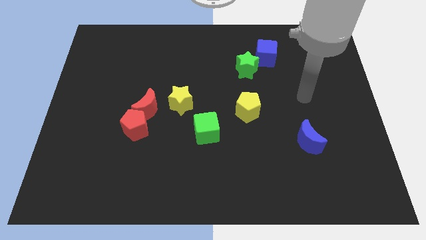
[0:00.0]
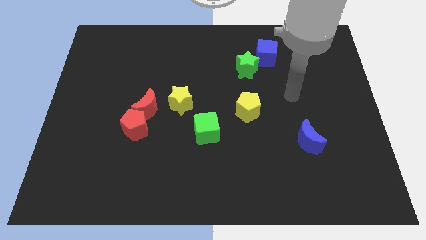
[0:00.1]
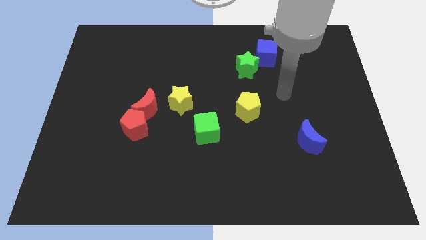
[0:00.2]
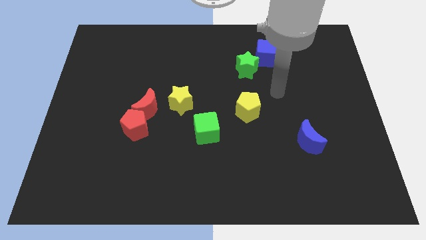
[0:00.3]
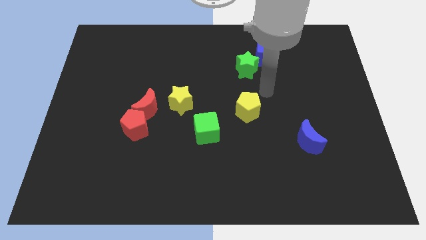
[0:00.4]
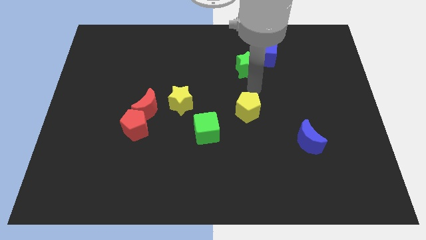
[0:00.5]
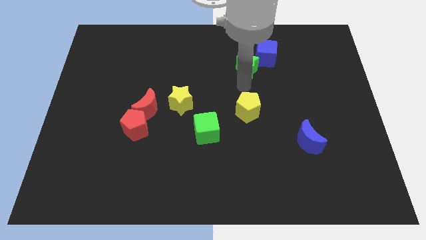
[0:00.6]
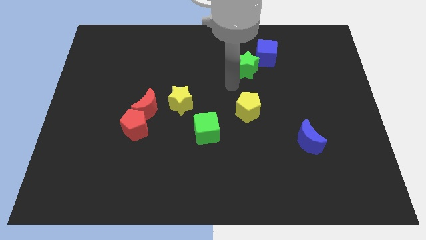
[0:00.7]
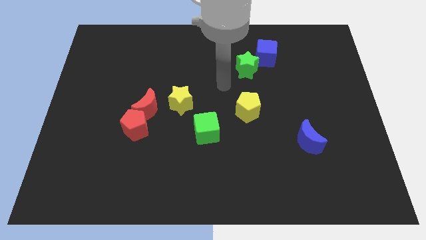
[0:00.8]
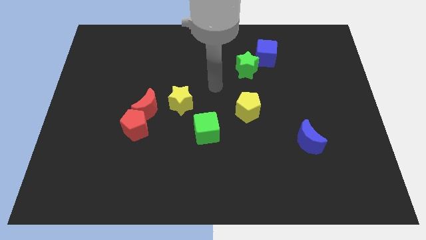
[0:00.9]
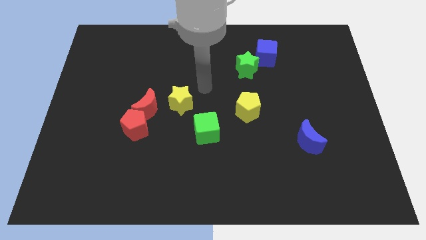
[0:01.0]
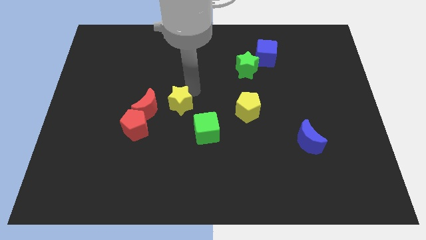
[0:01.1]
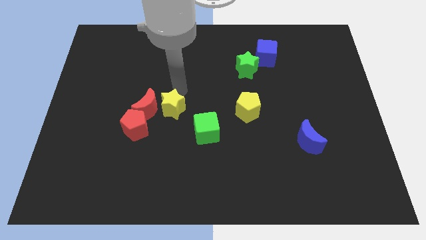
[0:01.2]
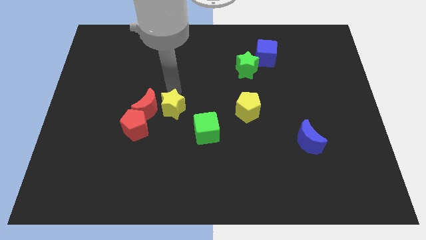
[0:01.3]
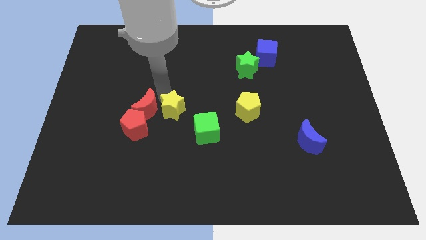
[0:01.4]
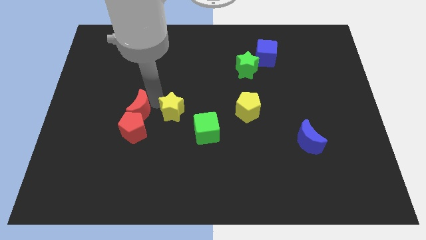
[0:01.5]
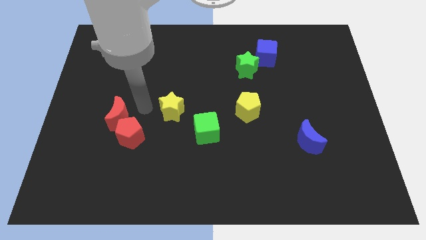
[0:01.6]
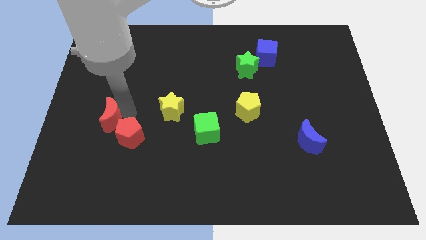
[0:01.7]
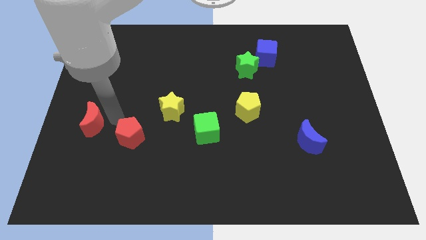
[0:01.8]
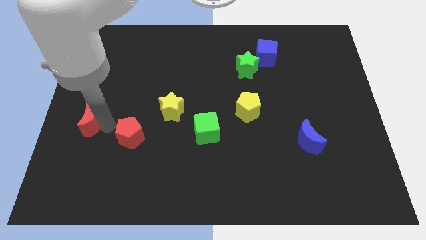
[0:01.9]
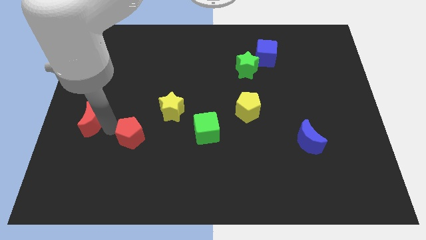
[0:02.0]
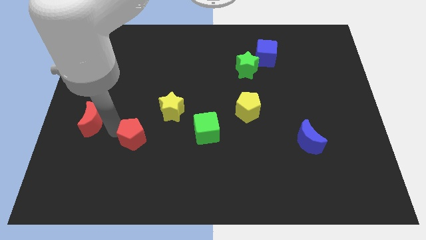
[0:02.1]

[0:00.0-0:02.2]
separate the red pentagon from the red moon

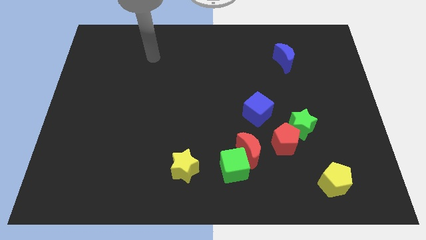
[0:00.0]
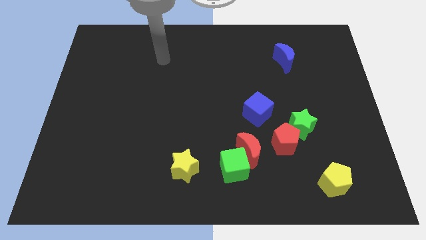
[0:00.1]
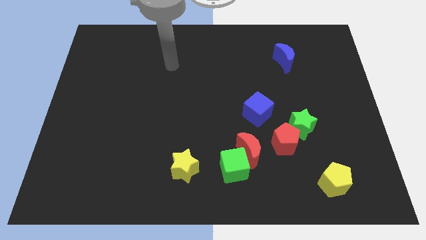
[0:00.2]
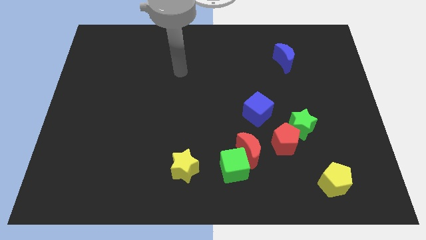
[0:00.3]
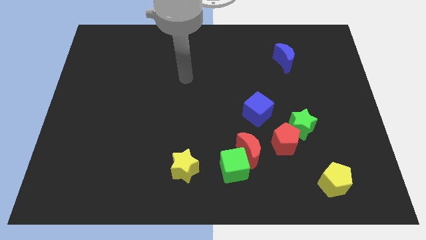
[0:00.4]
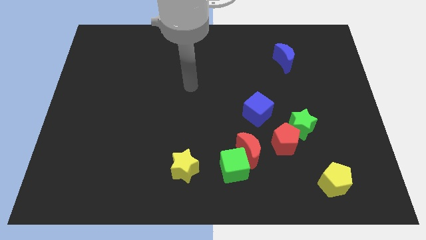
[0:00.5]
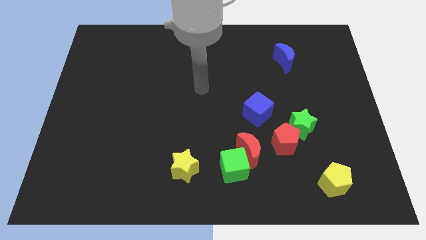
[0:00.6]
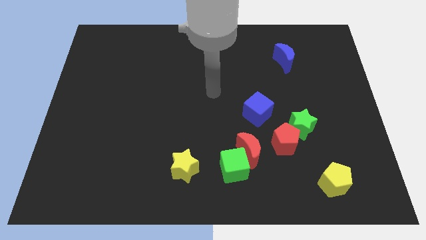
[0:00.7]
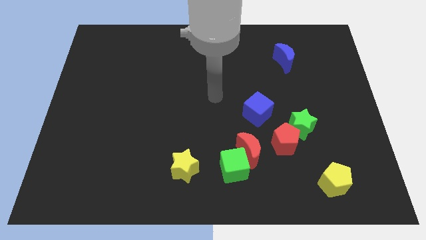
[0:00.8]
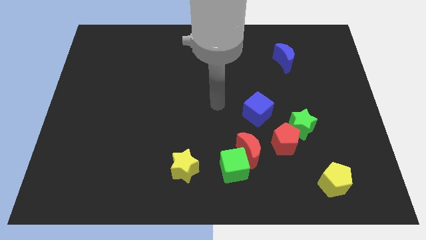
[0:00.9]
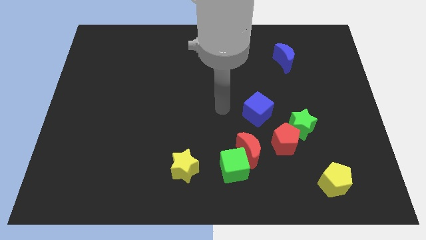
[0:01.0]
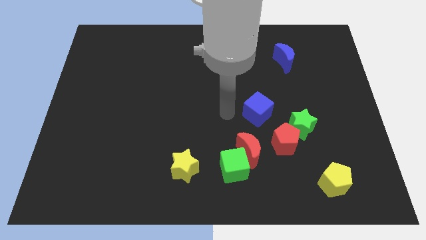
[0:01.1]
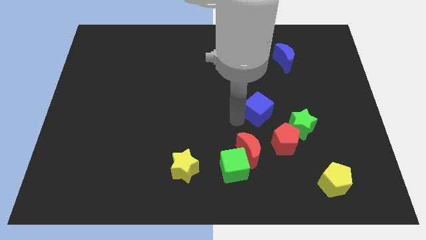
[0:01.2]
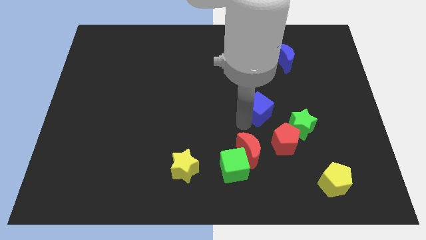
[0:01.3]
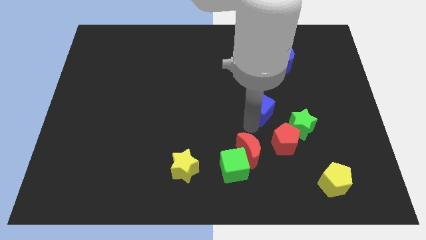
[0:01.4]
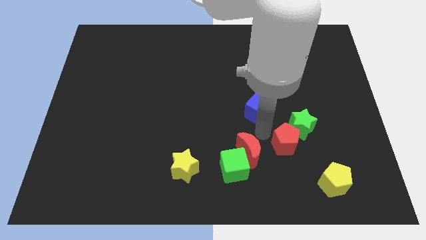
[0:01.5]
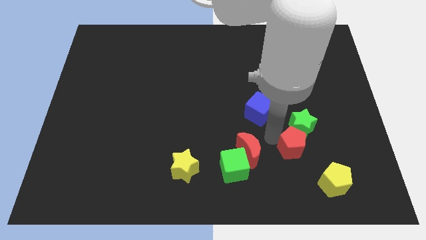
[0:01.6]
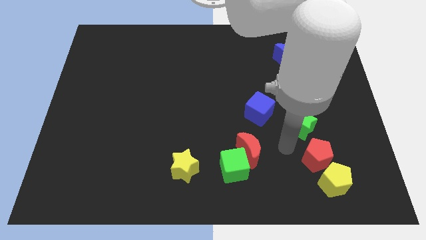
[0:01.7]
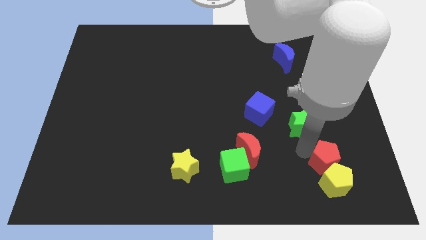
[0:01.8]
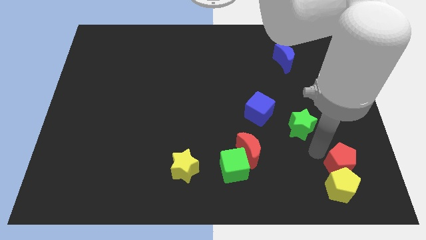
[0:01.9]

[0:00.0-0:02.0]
separate the green star from the red pentagon

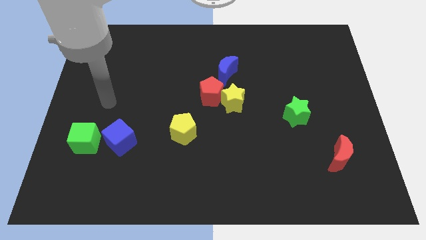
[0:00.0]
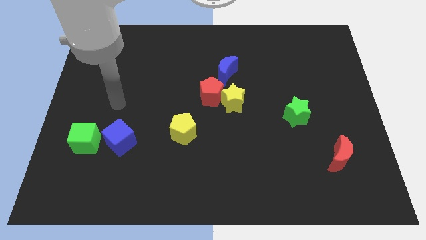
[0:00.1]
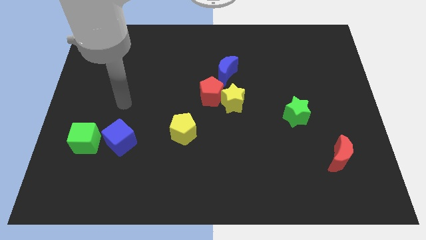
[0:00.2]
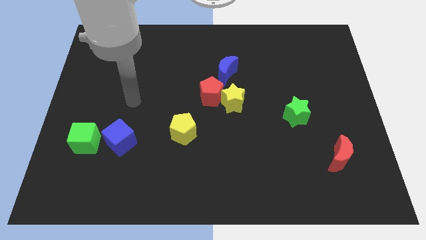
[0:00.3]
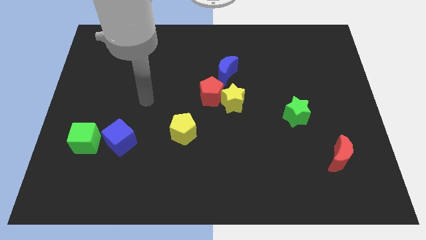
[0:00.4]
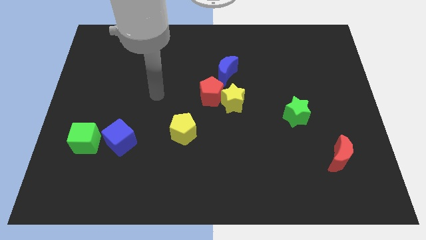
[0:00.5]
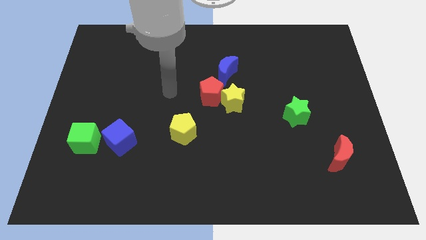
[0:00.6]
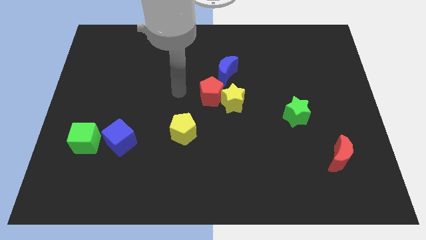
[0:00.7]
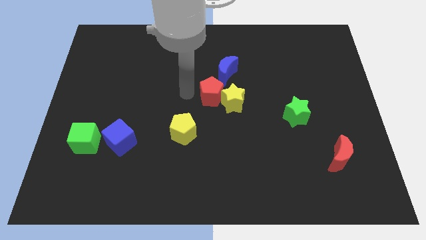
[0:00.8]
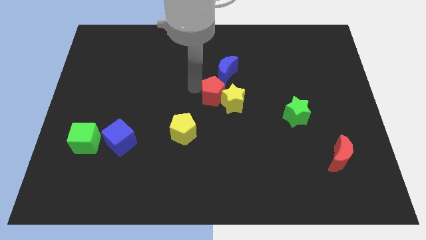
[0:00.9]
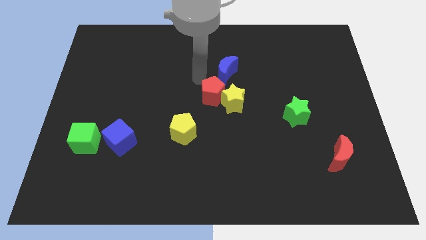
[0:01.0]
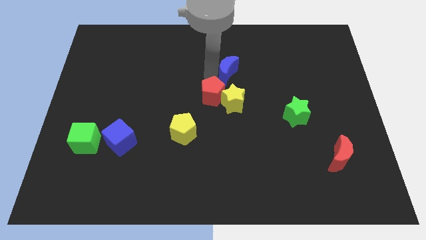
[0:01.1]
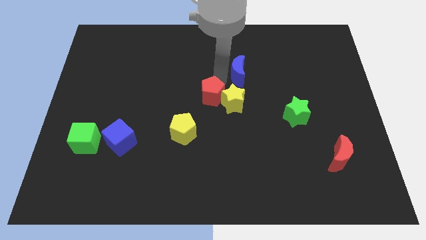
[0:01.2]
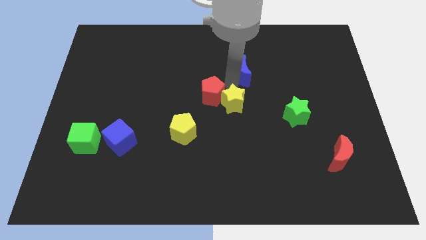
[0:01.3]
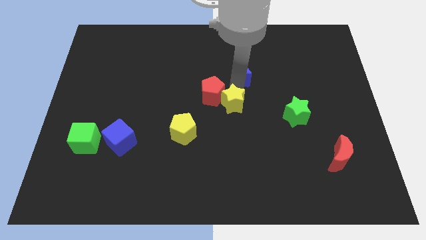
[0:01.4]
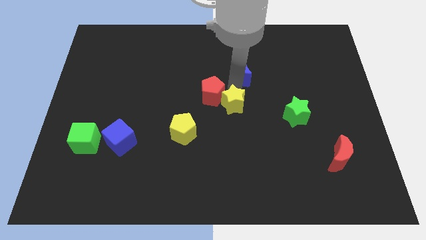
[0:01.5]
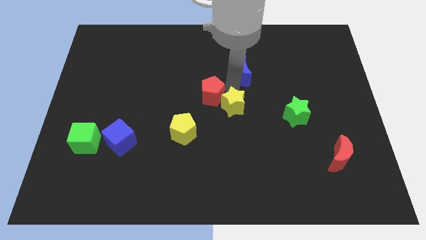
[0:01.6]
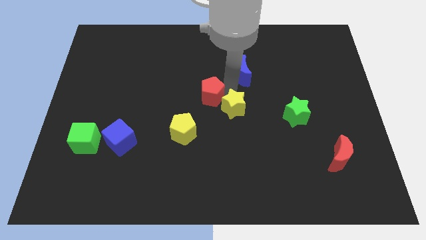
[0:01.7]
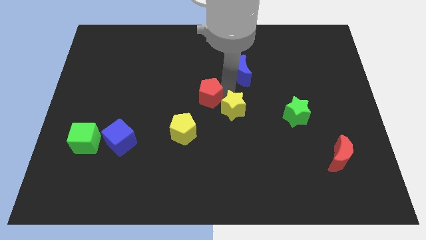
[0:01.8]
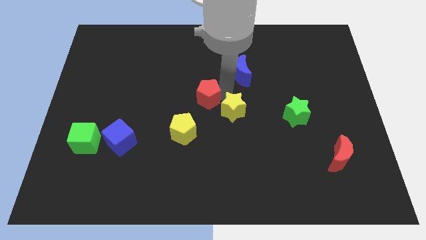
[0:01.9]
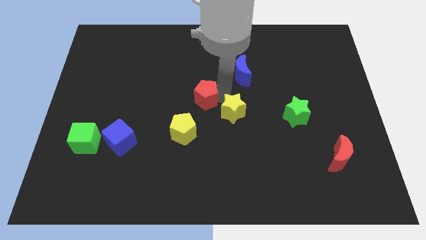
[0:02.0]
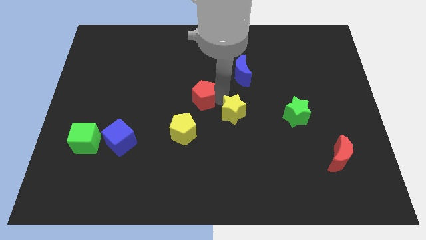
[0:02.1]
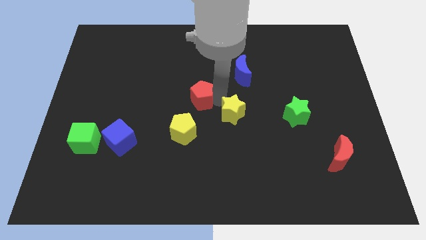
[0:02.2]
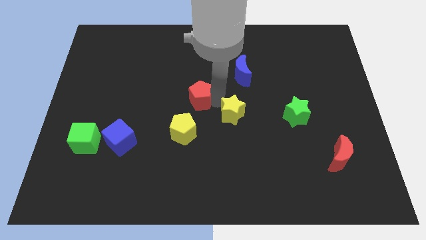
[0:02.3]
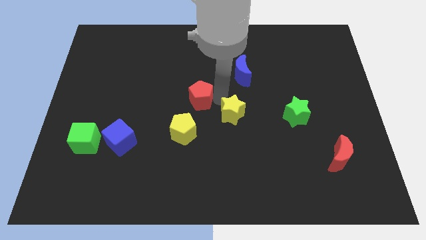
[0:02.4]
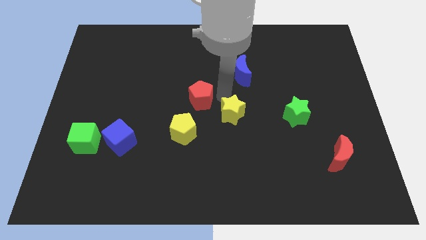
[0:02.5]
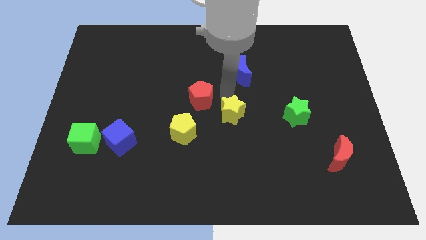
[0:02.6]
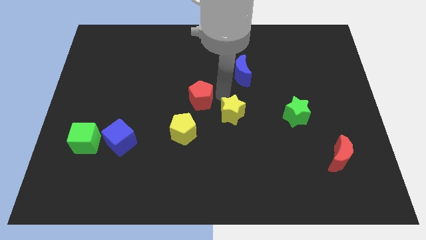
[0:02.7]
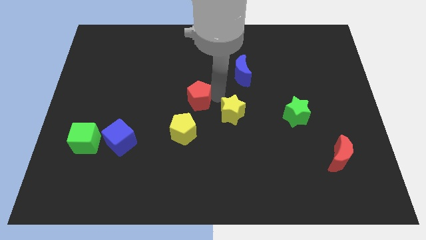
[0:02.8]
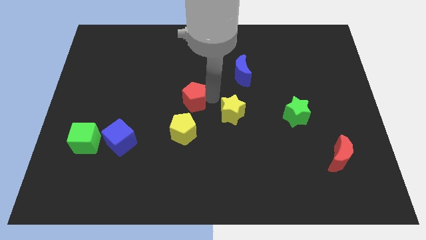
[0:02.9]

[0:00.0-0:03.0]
separate the red pentagon from the yellow star and blue moon

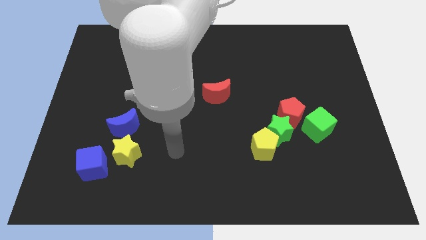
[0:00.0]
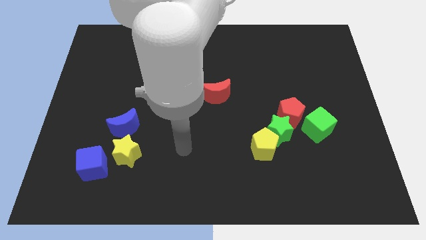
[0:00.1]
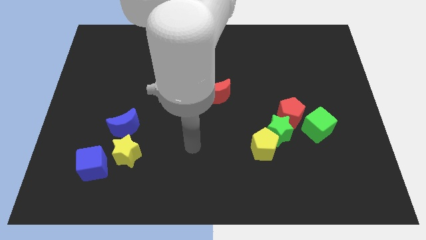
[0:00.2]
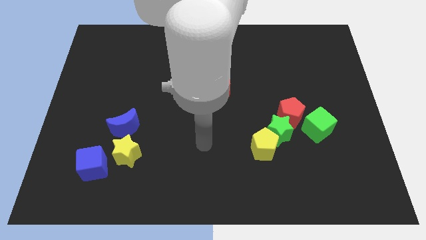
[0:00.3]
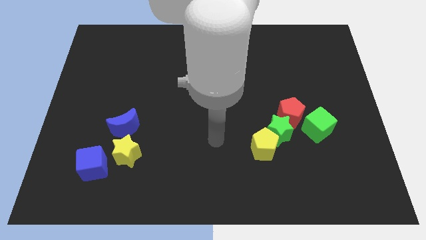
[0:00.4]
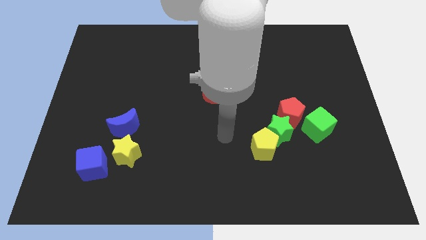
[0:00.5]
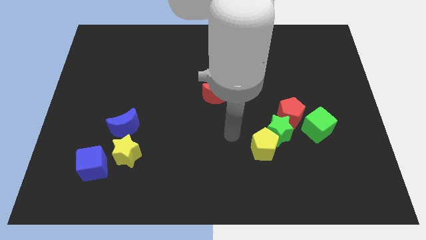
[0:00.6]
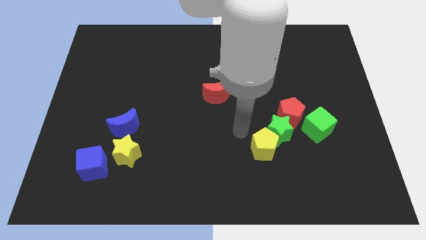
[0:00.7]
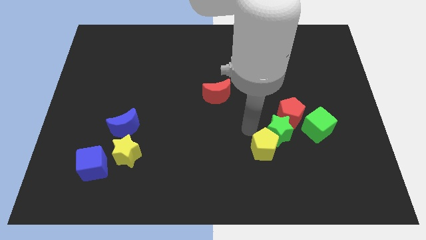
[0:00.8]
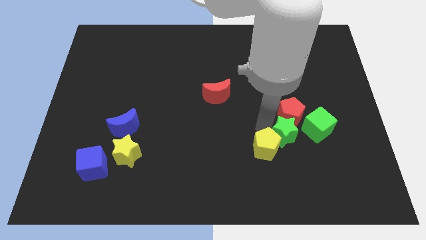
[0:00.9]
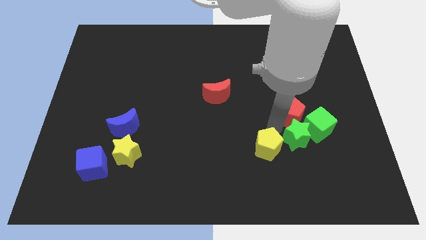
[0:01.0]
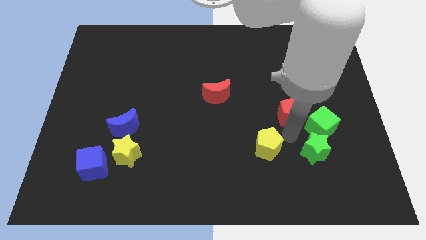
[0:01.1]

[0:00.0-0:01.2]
move the yellow pentagon away from the green star

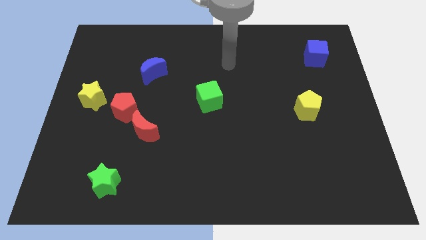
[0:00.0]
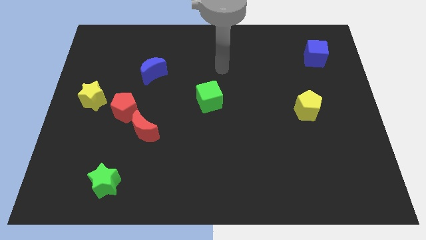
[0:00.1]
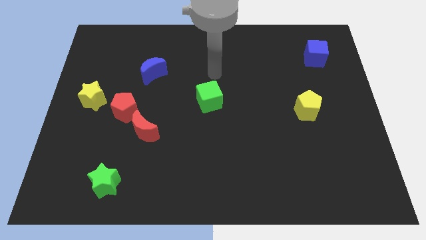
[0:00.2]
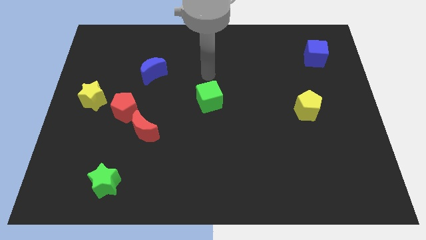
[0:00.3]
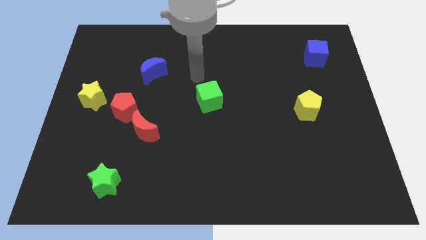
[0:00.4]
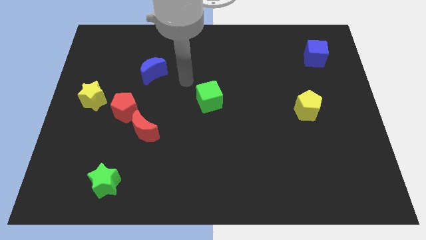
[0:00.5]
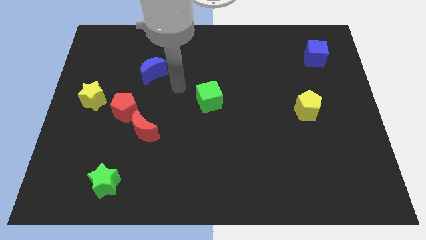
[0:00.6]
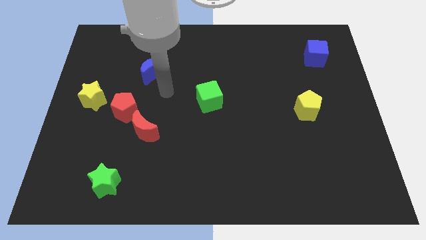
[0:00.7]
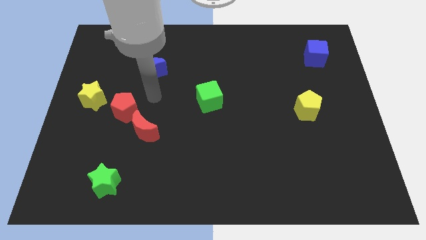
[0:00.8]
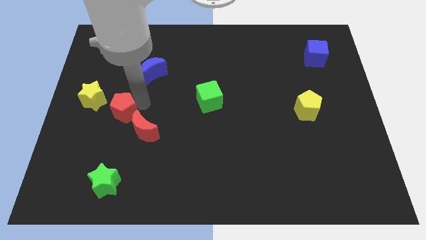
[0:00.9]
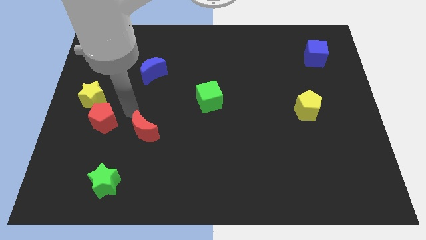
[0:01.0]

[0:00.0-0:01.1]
pull the red moon apart from the red pentagon
